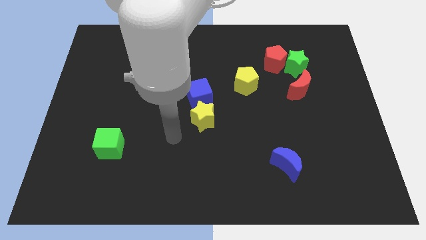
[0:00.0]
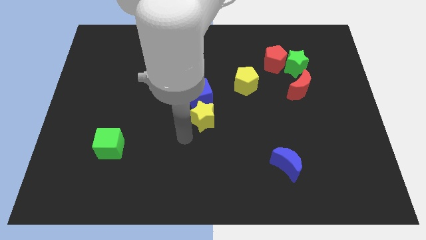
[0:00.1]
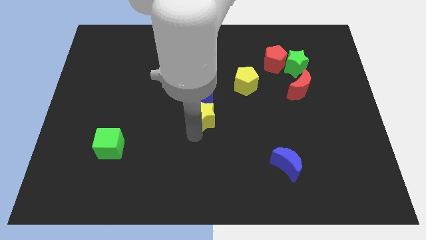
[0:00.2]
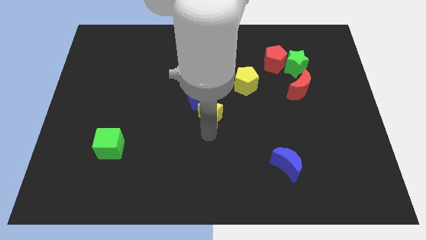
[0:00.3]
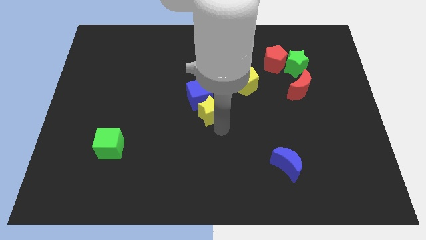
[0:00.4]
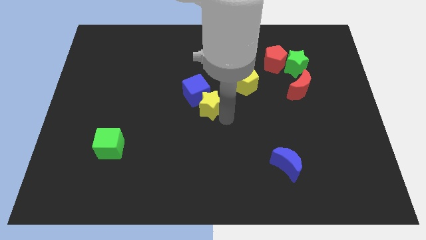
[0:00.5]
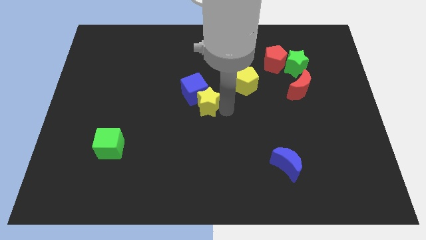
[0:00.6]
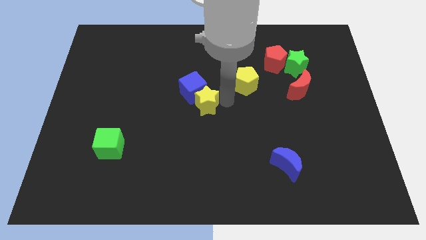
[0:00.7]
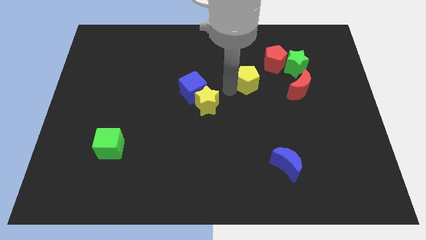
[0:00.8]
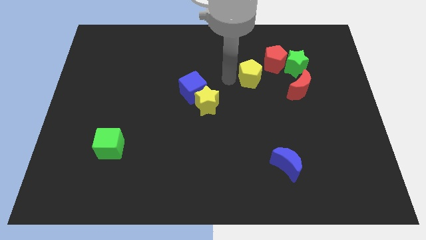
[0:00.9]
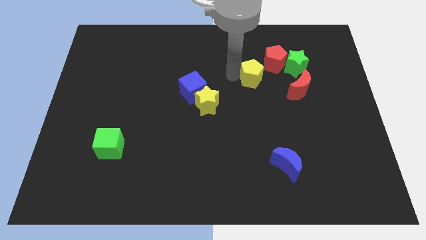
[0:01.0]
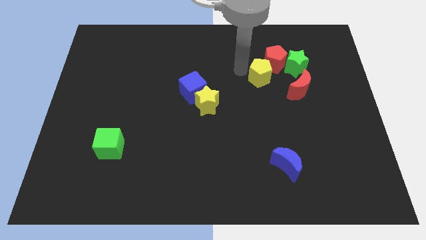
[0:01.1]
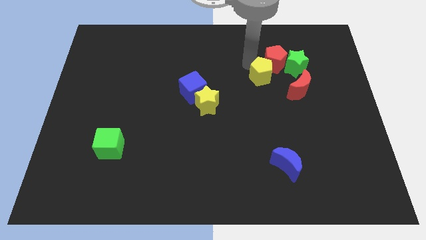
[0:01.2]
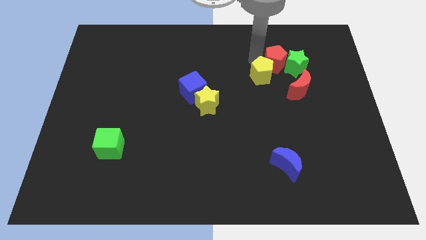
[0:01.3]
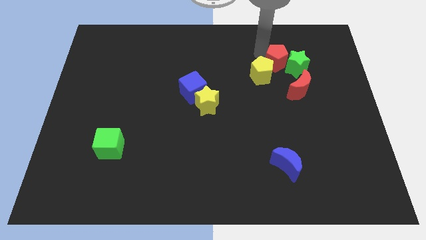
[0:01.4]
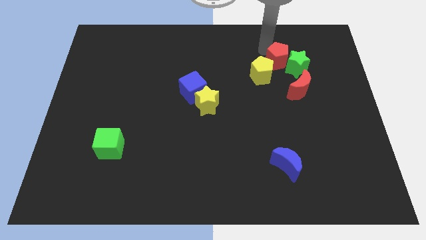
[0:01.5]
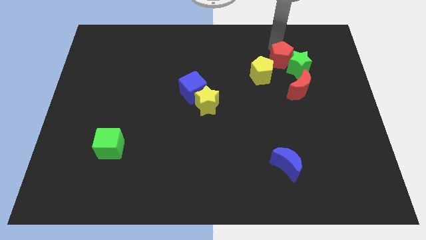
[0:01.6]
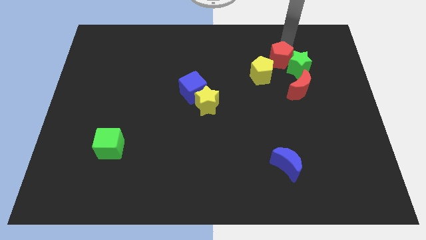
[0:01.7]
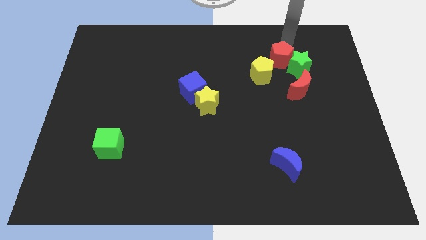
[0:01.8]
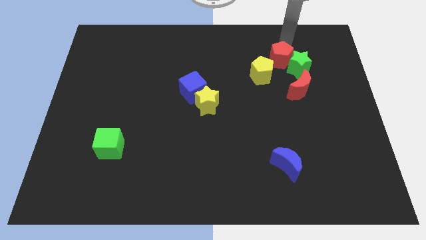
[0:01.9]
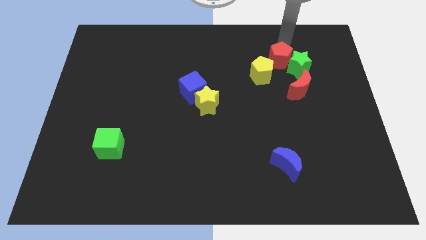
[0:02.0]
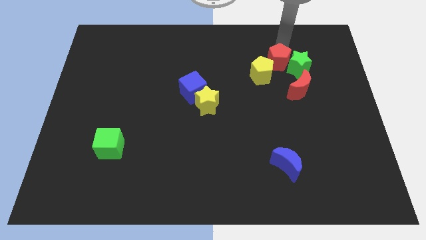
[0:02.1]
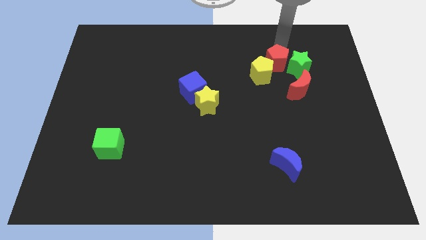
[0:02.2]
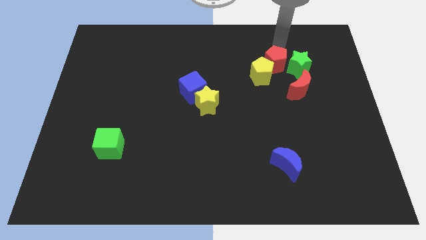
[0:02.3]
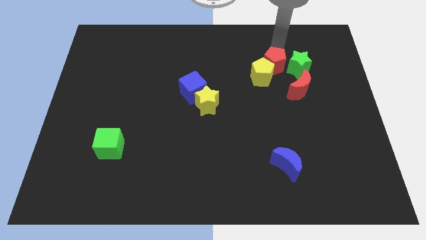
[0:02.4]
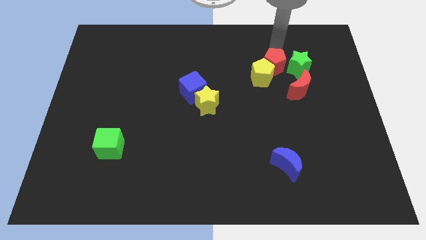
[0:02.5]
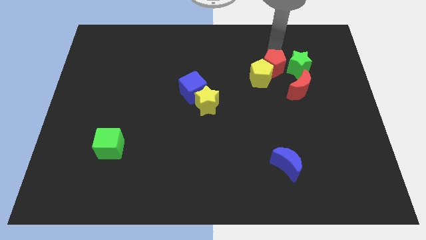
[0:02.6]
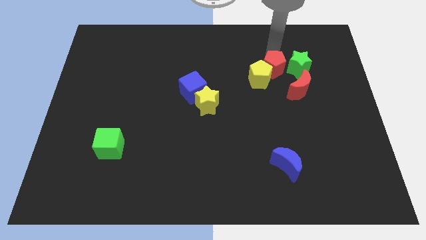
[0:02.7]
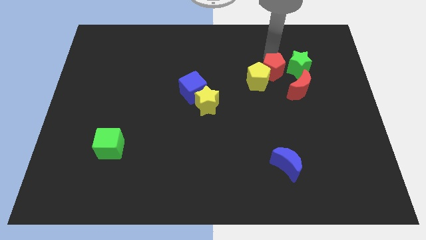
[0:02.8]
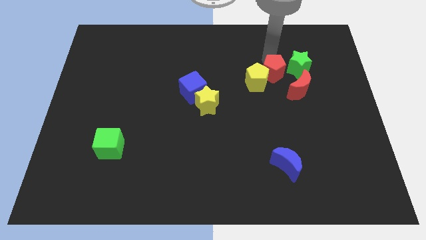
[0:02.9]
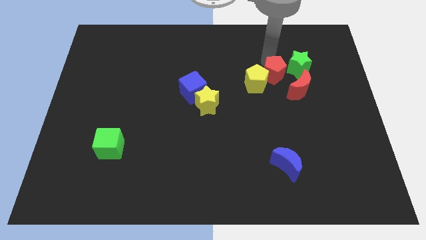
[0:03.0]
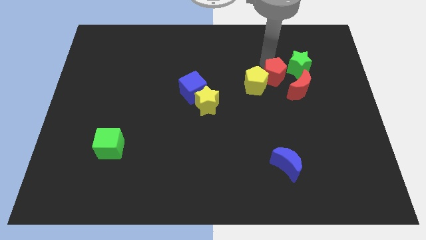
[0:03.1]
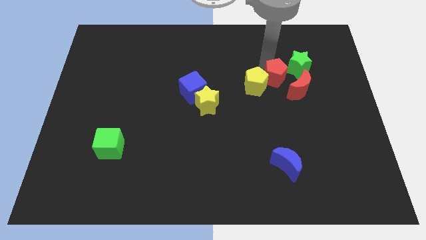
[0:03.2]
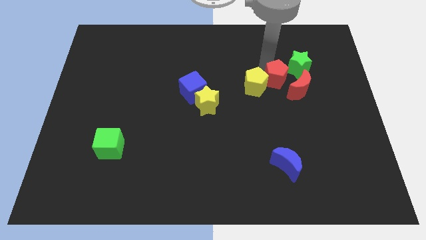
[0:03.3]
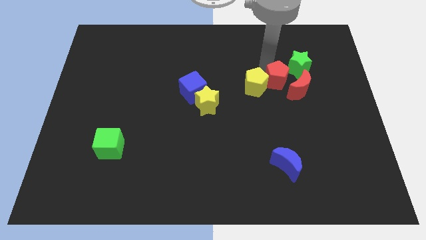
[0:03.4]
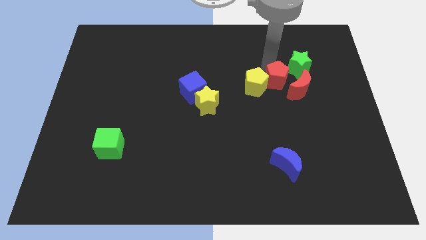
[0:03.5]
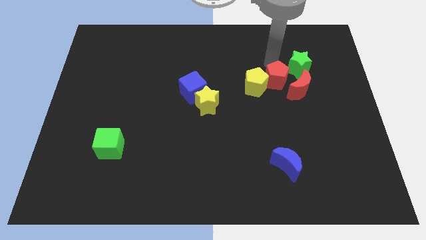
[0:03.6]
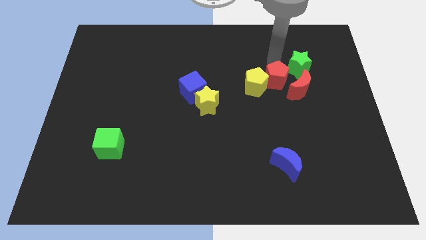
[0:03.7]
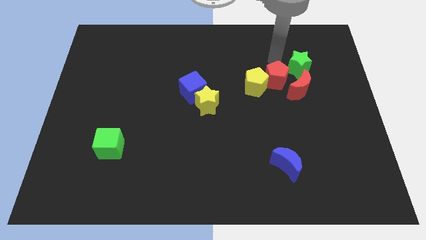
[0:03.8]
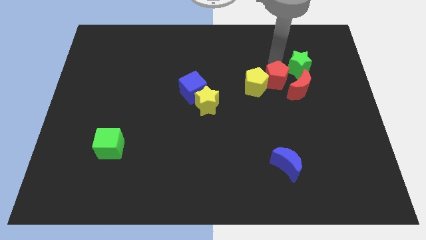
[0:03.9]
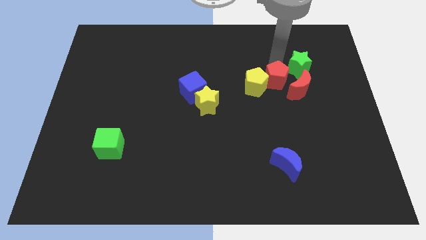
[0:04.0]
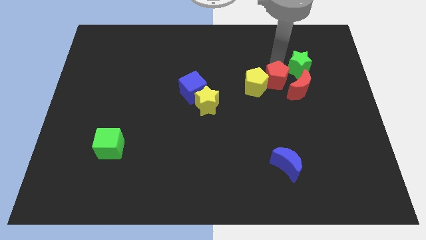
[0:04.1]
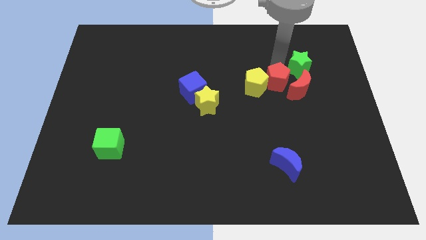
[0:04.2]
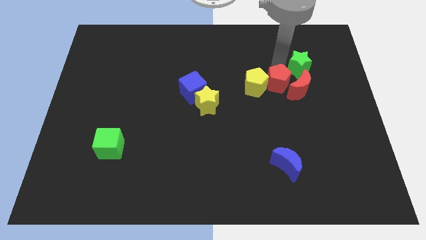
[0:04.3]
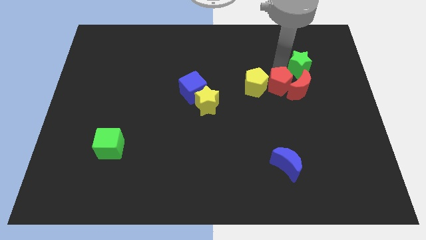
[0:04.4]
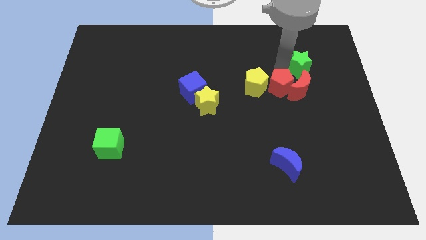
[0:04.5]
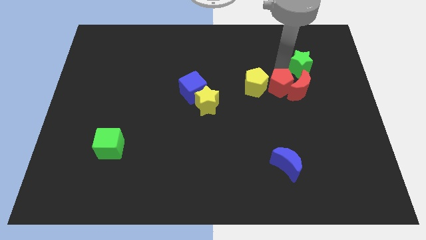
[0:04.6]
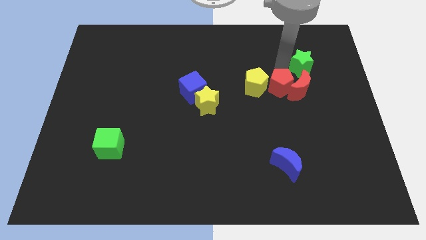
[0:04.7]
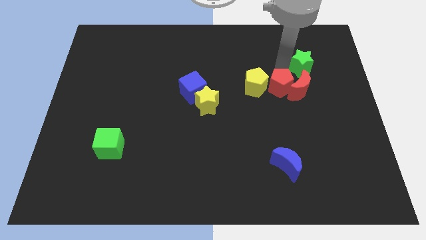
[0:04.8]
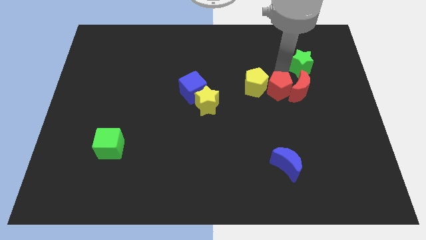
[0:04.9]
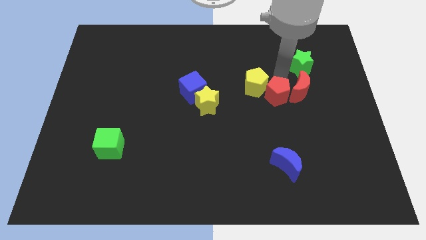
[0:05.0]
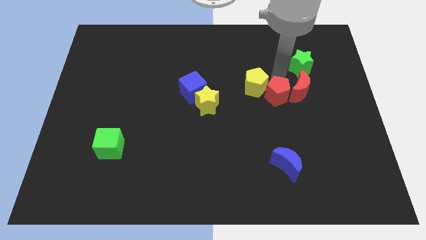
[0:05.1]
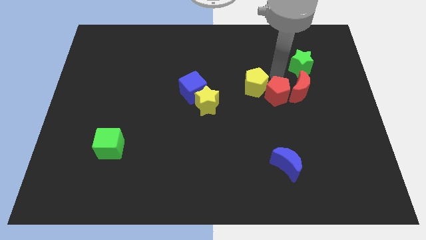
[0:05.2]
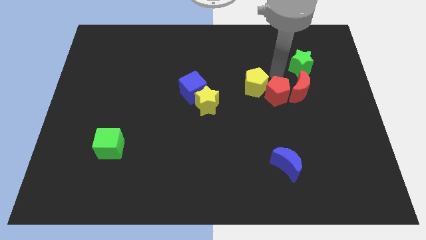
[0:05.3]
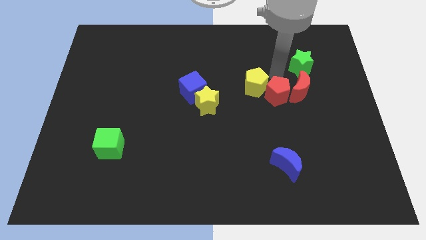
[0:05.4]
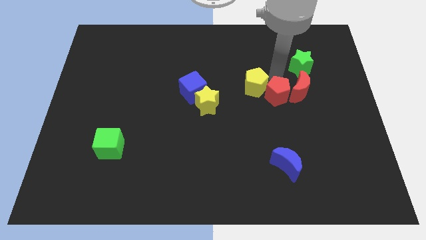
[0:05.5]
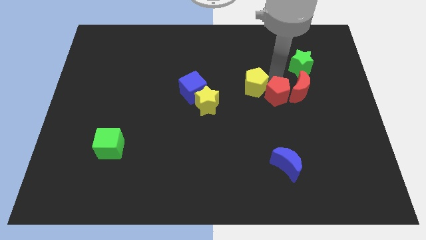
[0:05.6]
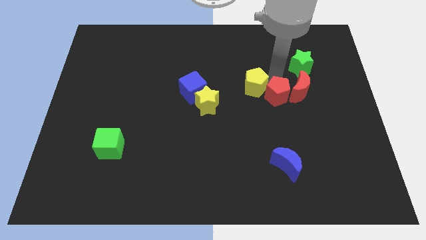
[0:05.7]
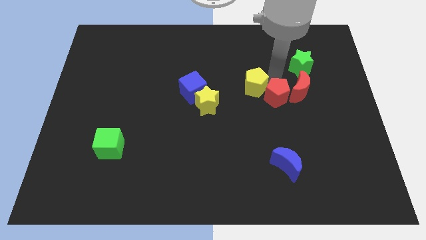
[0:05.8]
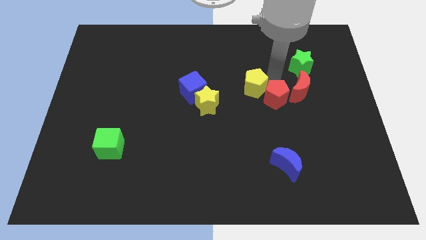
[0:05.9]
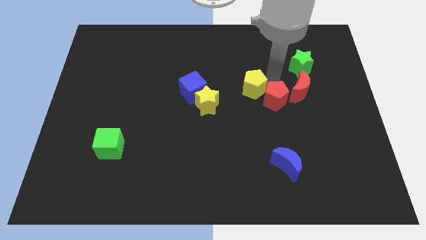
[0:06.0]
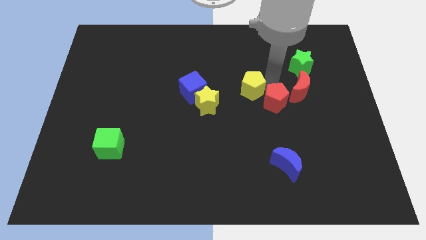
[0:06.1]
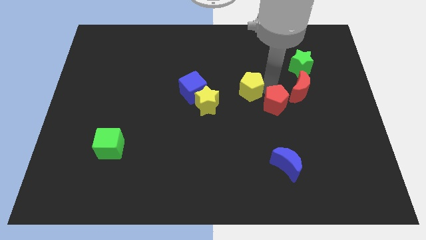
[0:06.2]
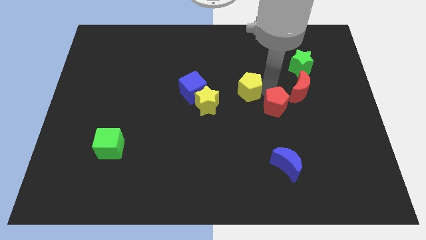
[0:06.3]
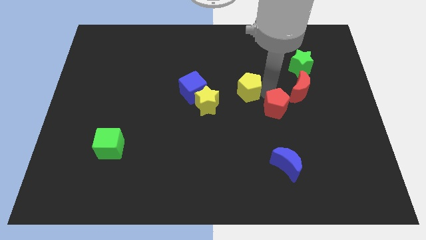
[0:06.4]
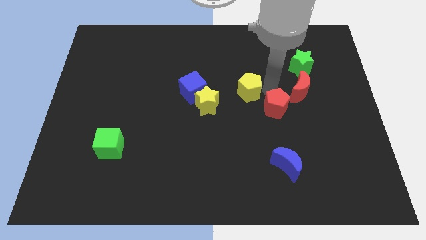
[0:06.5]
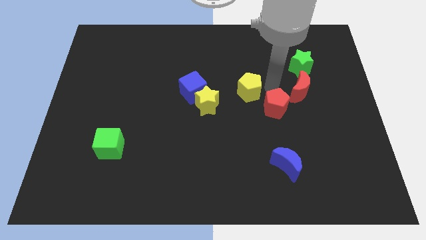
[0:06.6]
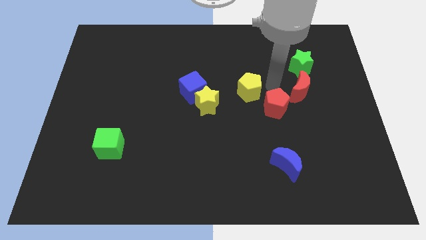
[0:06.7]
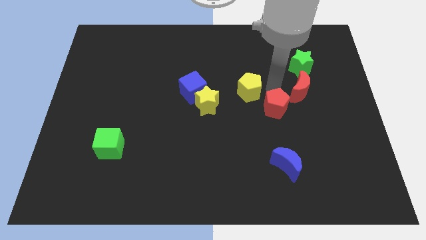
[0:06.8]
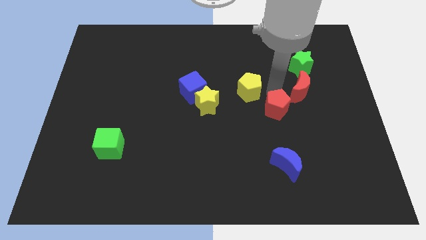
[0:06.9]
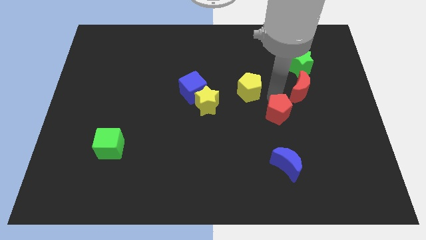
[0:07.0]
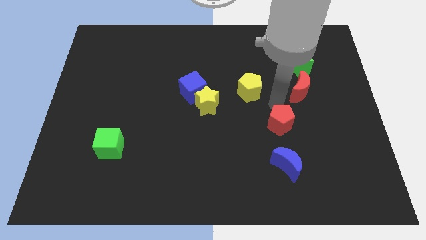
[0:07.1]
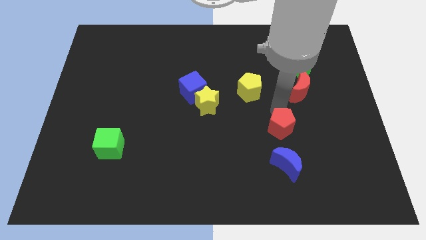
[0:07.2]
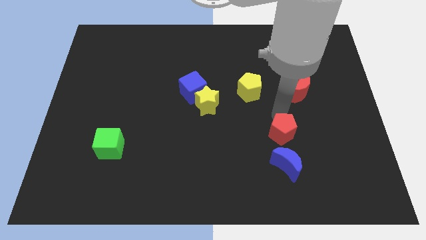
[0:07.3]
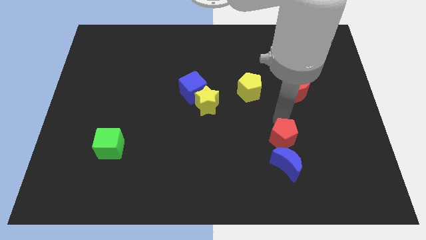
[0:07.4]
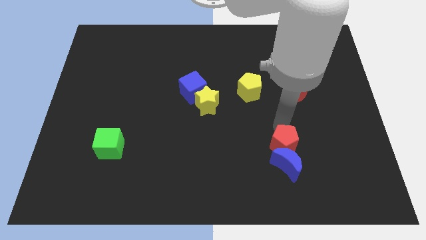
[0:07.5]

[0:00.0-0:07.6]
put the red pentagon next to the blue moon

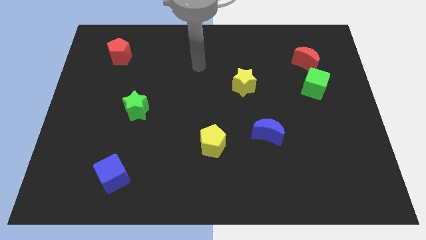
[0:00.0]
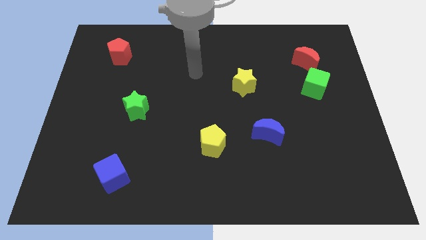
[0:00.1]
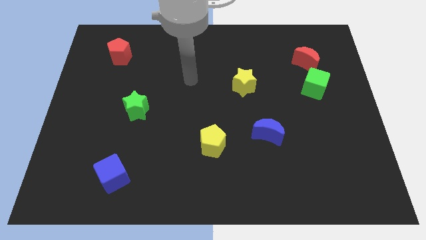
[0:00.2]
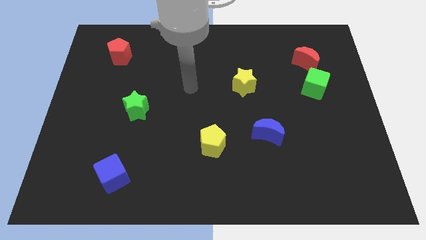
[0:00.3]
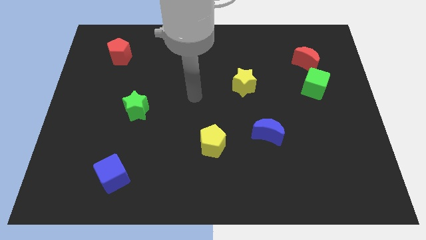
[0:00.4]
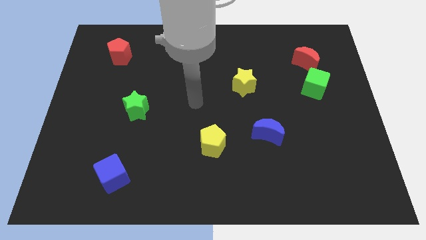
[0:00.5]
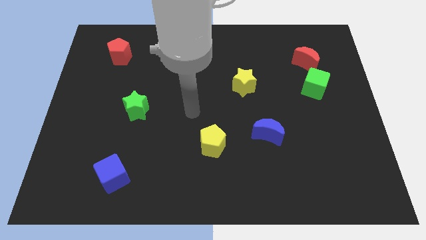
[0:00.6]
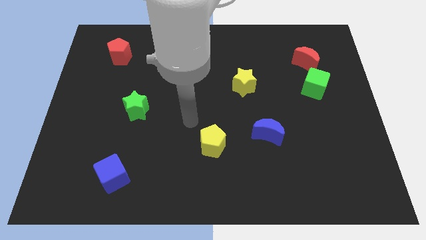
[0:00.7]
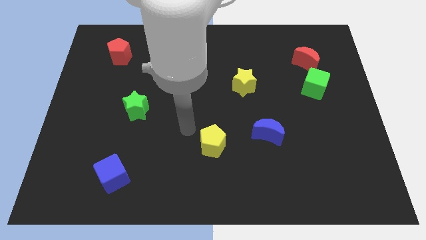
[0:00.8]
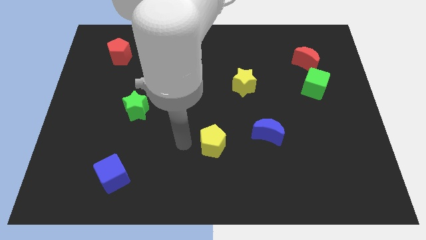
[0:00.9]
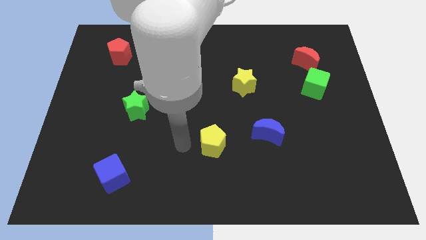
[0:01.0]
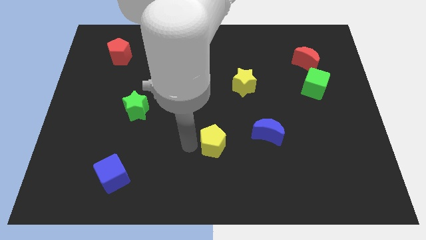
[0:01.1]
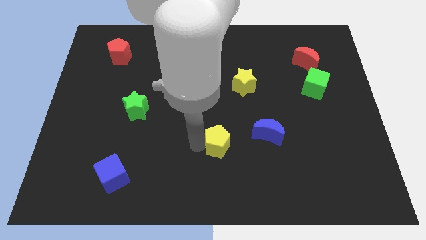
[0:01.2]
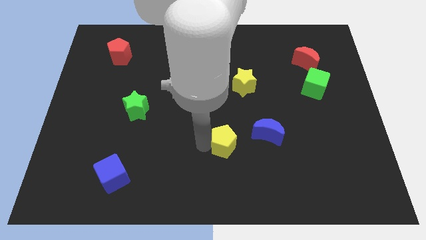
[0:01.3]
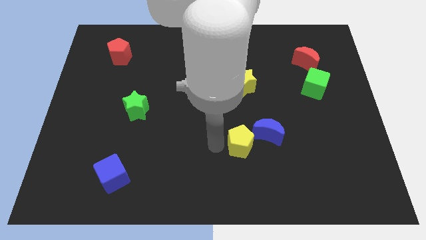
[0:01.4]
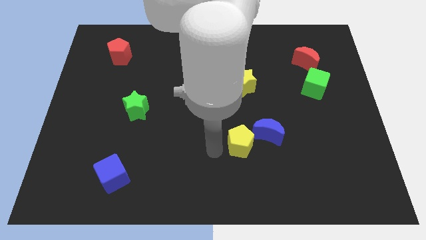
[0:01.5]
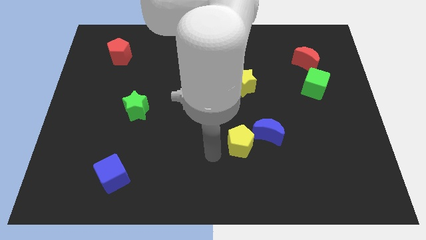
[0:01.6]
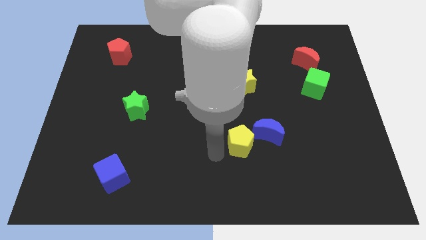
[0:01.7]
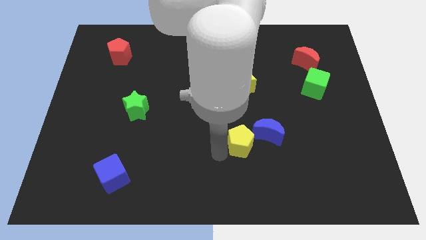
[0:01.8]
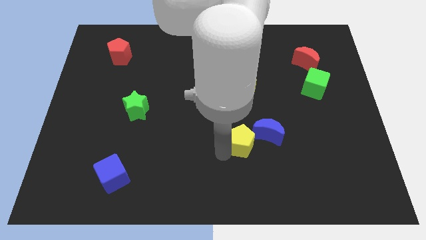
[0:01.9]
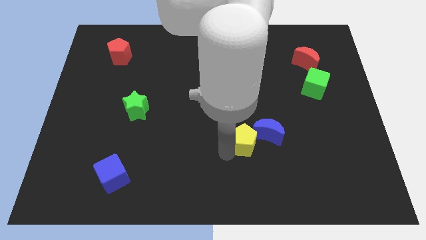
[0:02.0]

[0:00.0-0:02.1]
push the yellow pentagon to the blue moon
